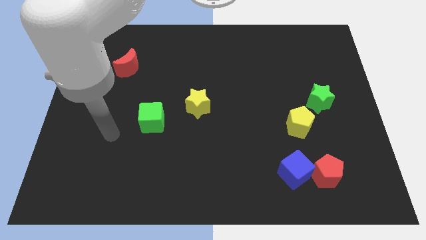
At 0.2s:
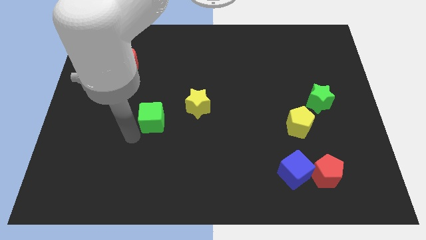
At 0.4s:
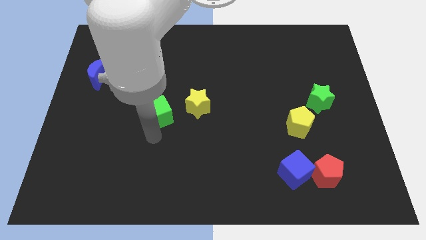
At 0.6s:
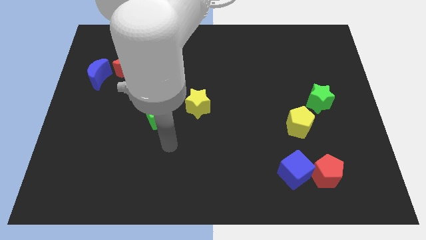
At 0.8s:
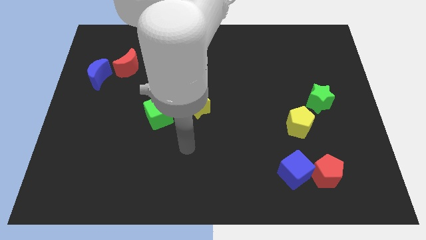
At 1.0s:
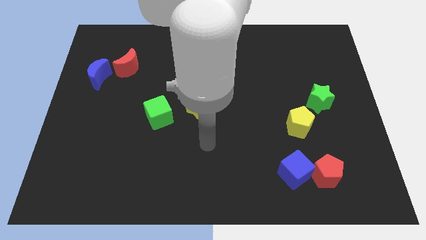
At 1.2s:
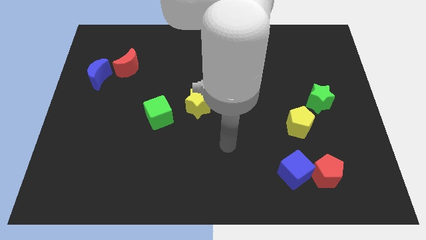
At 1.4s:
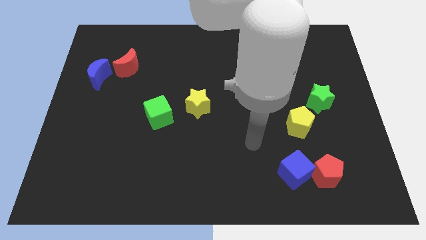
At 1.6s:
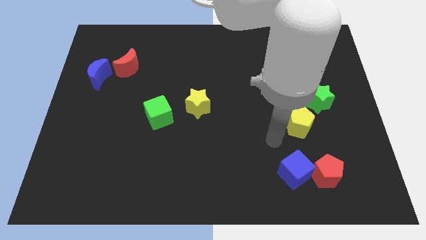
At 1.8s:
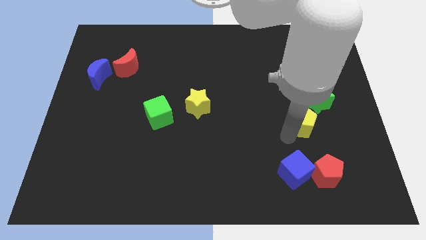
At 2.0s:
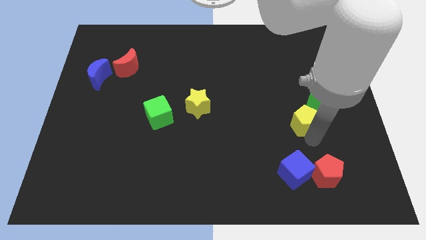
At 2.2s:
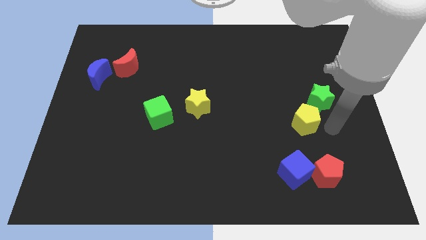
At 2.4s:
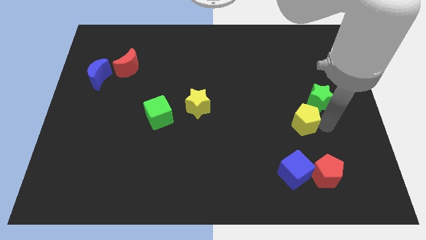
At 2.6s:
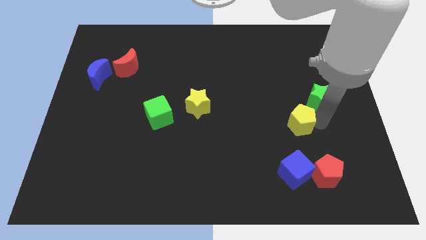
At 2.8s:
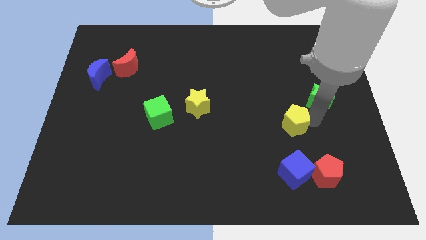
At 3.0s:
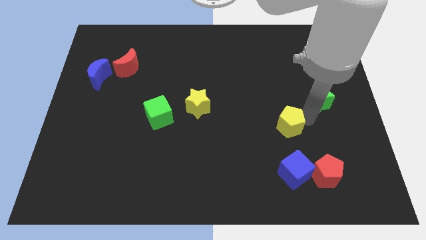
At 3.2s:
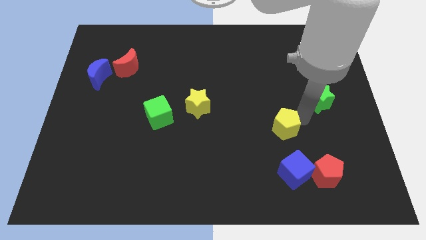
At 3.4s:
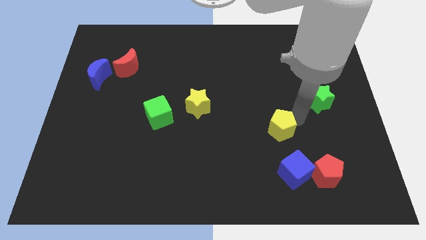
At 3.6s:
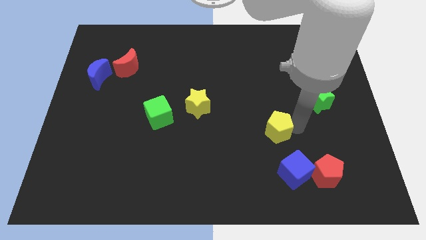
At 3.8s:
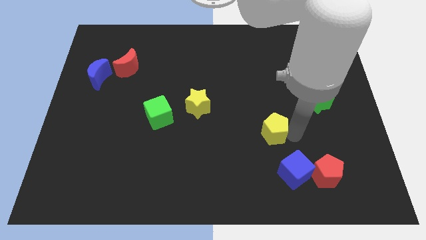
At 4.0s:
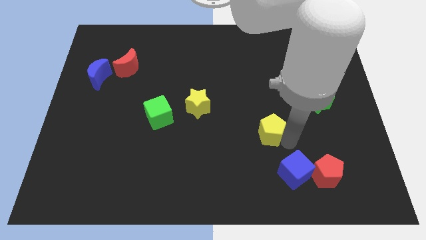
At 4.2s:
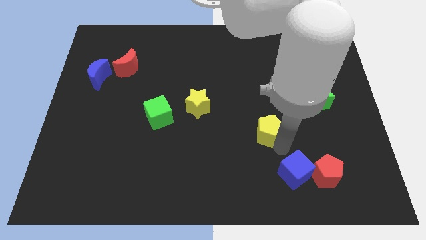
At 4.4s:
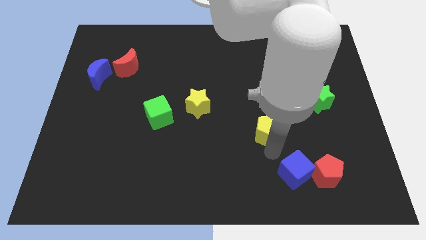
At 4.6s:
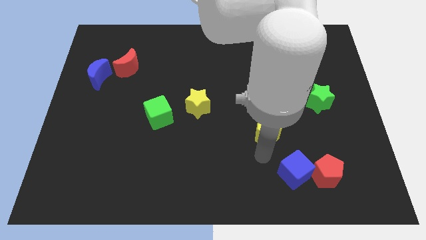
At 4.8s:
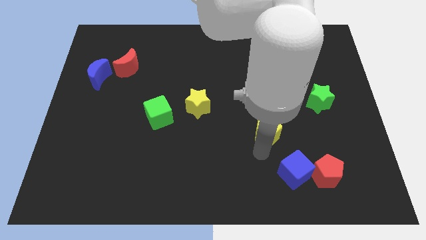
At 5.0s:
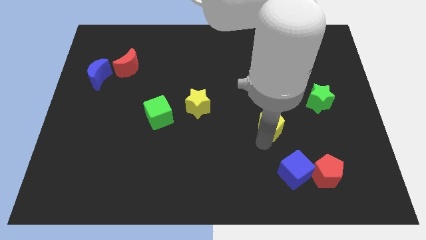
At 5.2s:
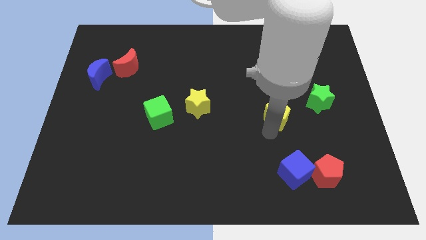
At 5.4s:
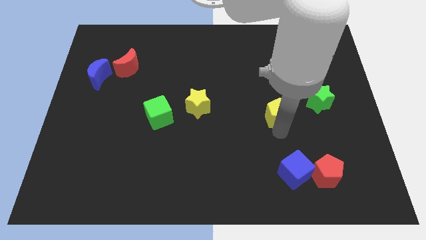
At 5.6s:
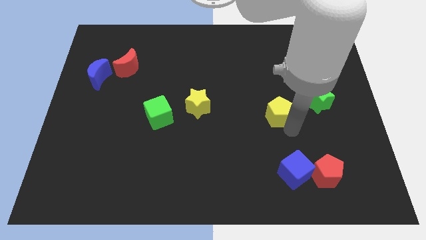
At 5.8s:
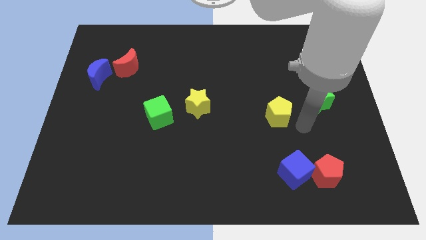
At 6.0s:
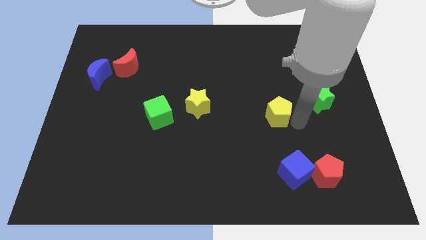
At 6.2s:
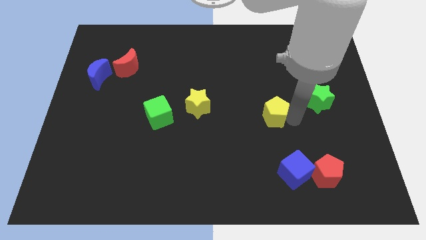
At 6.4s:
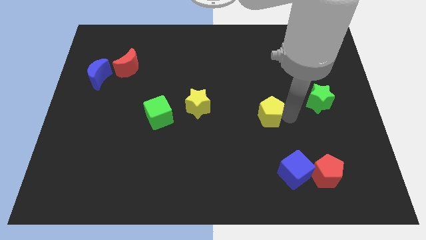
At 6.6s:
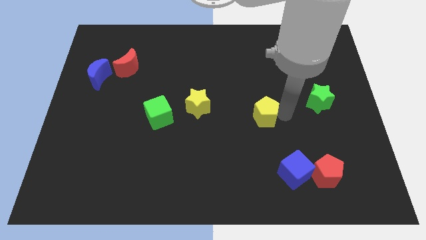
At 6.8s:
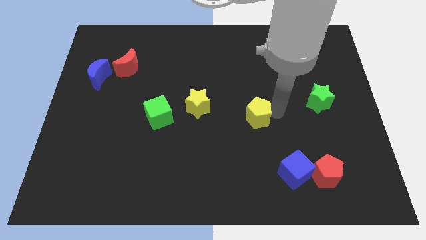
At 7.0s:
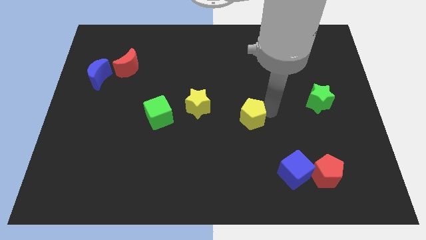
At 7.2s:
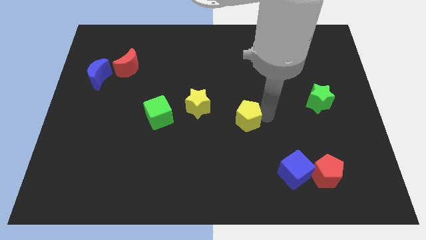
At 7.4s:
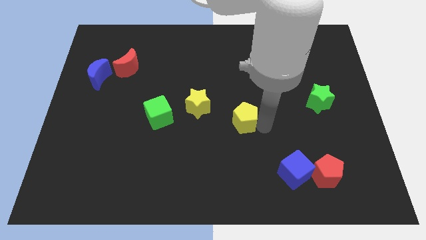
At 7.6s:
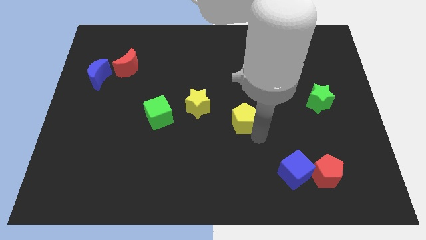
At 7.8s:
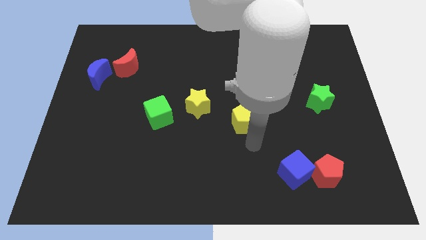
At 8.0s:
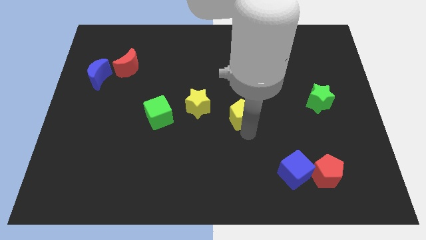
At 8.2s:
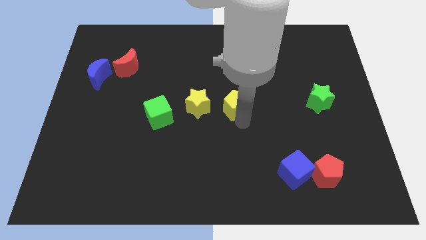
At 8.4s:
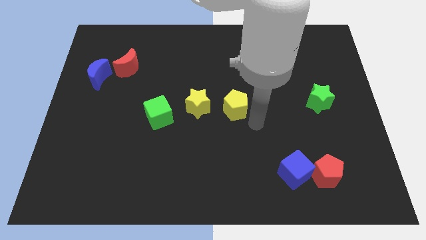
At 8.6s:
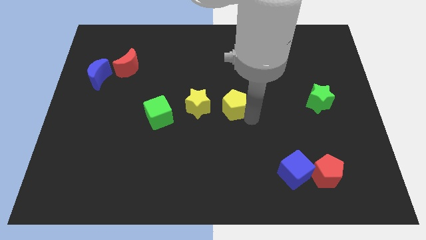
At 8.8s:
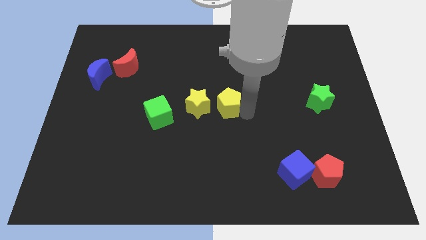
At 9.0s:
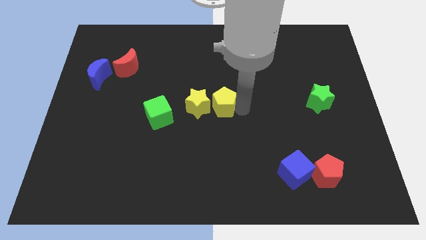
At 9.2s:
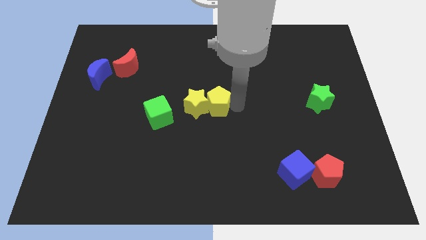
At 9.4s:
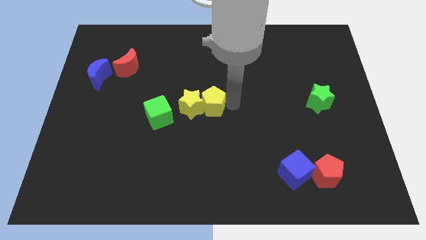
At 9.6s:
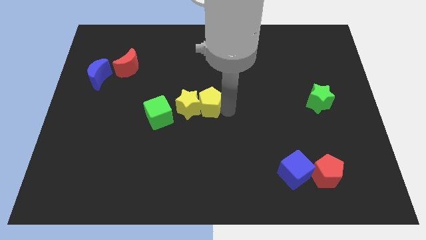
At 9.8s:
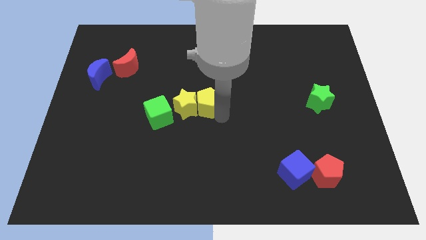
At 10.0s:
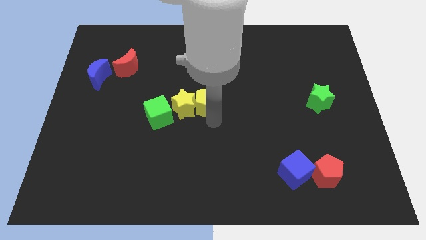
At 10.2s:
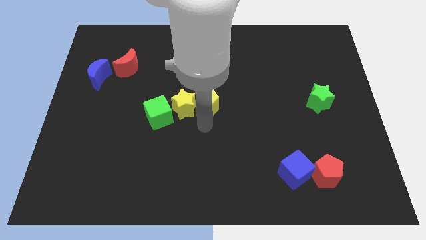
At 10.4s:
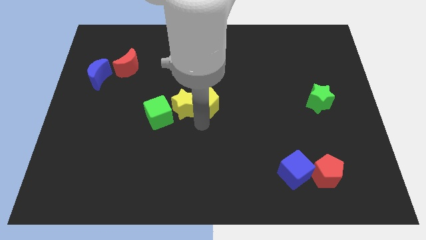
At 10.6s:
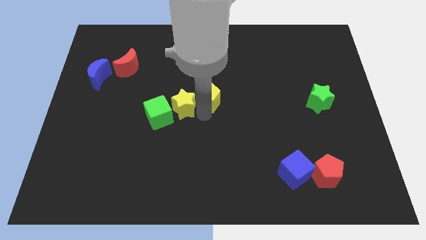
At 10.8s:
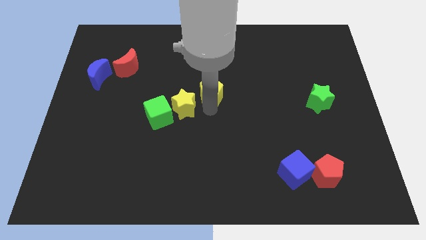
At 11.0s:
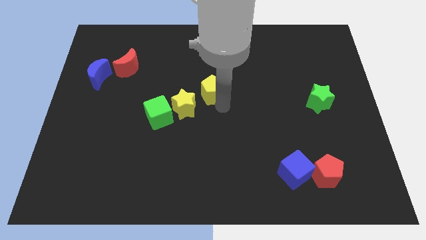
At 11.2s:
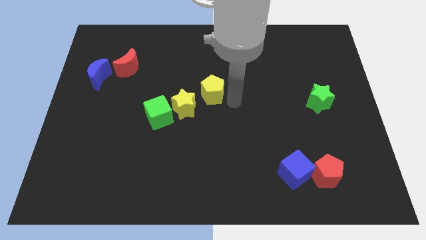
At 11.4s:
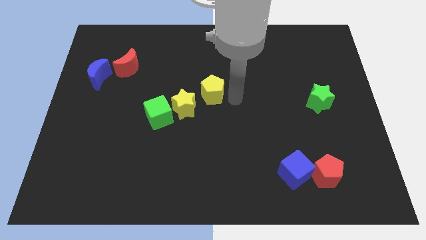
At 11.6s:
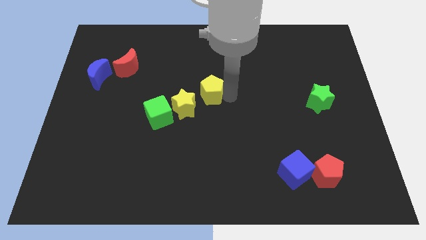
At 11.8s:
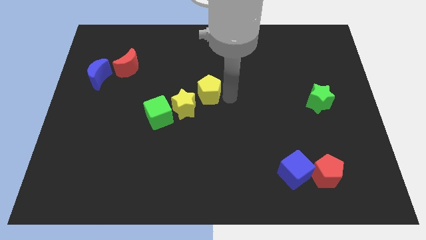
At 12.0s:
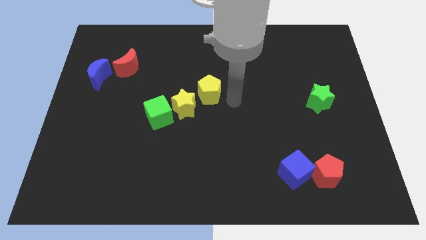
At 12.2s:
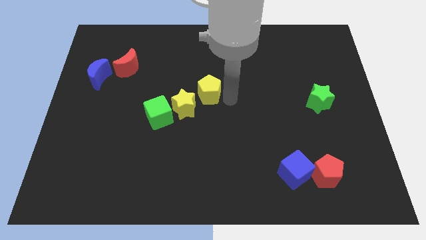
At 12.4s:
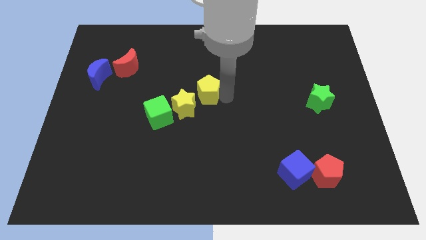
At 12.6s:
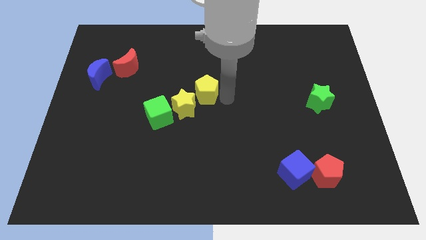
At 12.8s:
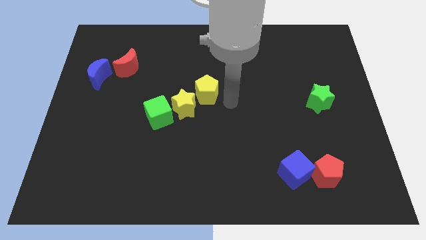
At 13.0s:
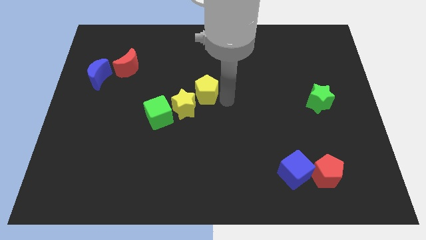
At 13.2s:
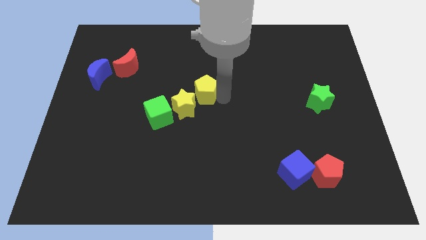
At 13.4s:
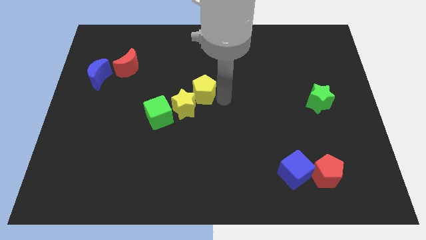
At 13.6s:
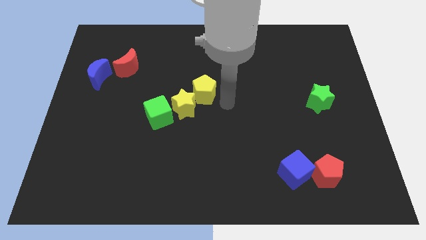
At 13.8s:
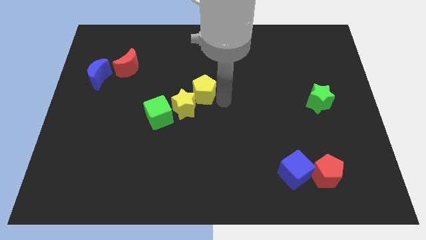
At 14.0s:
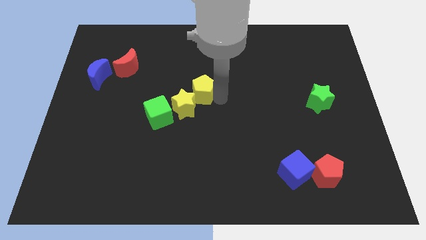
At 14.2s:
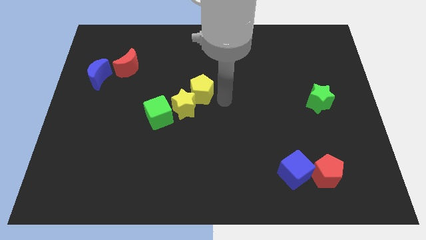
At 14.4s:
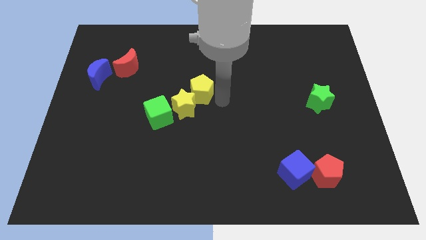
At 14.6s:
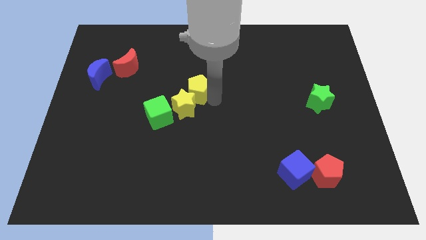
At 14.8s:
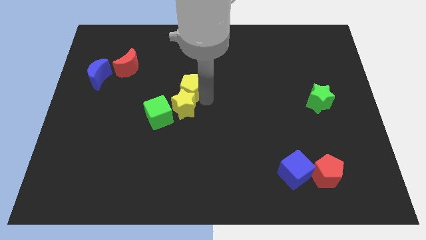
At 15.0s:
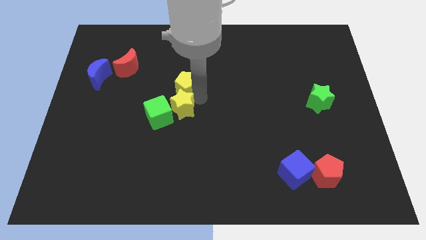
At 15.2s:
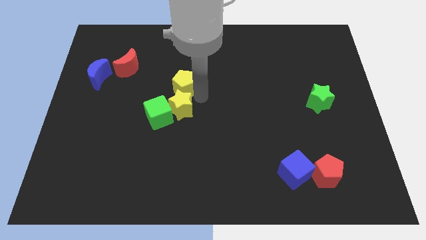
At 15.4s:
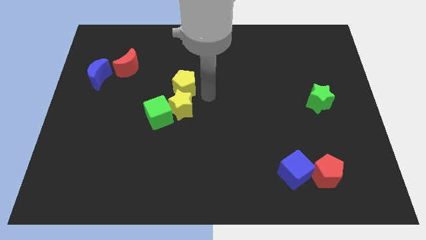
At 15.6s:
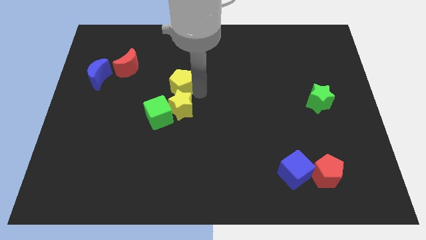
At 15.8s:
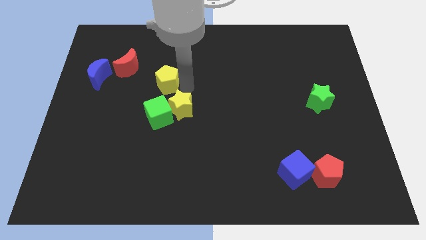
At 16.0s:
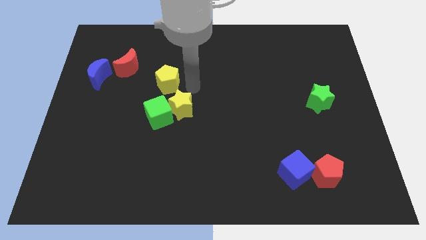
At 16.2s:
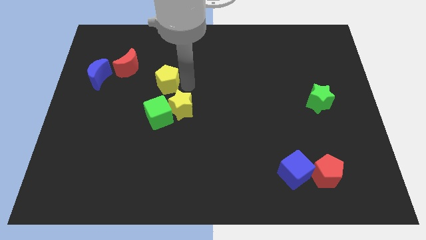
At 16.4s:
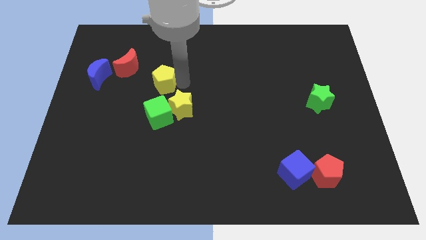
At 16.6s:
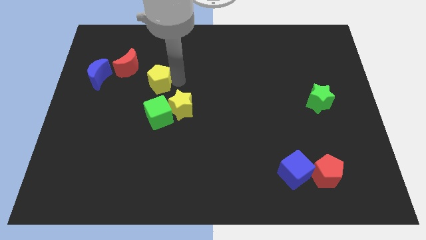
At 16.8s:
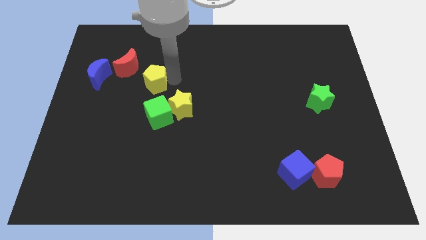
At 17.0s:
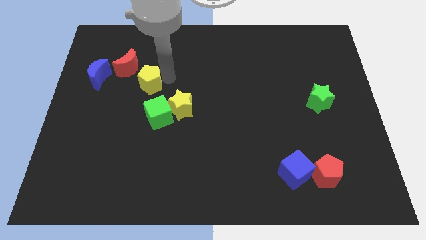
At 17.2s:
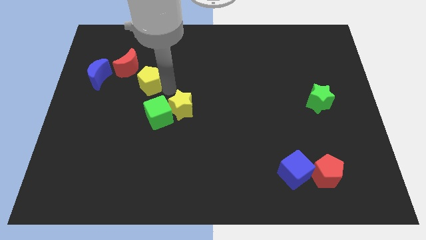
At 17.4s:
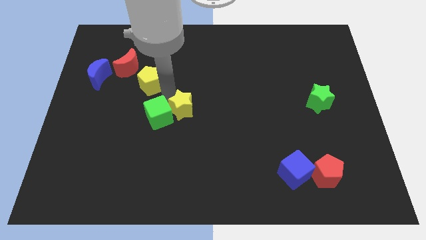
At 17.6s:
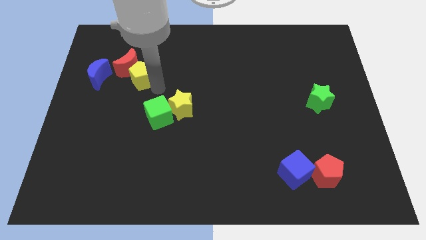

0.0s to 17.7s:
put the yellow pentagon to the red moon
